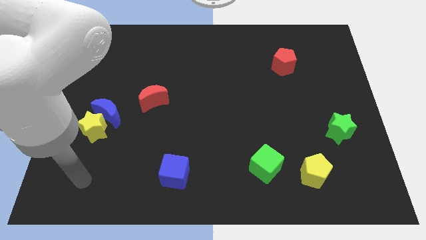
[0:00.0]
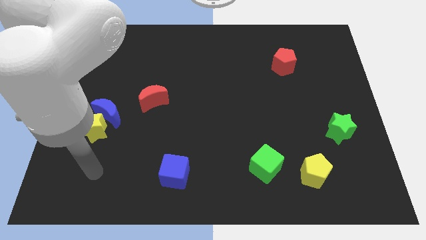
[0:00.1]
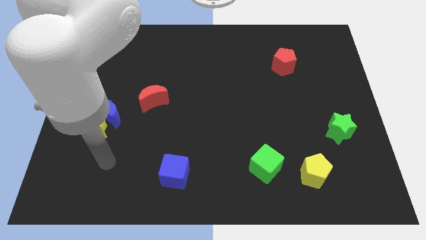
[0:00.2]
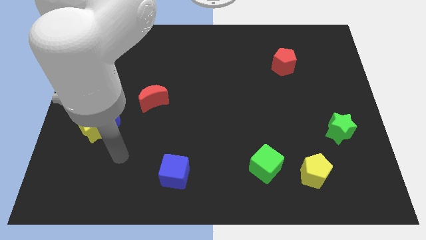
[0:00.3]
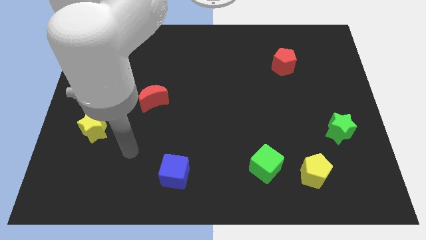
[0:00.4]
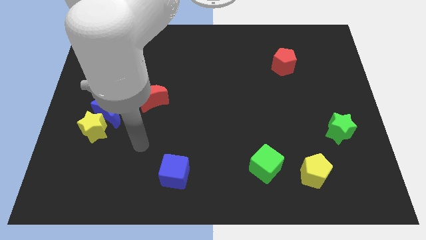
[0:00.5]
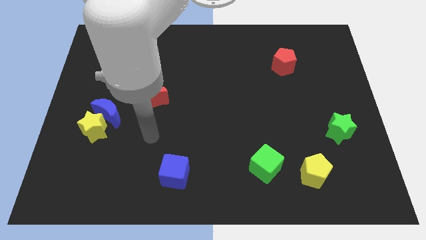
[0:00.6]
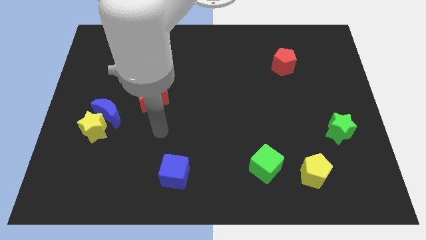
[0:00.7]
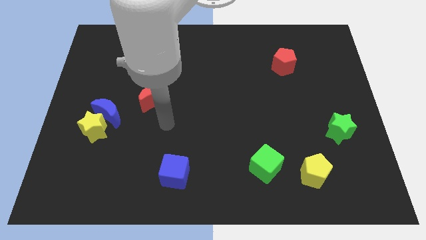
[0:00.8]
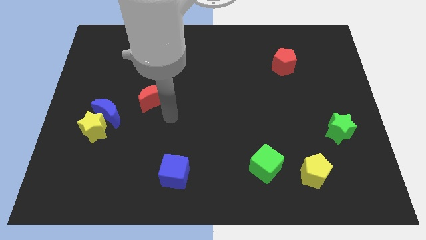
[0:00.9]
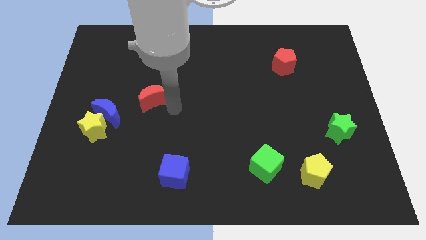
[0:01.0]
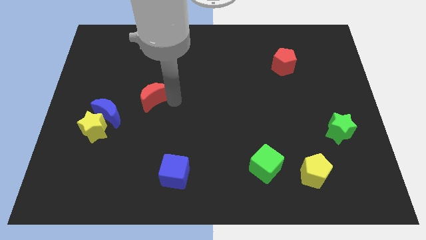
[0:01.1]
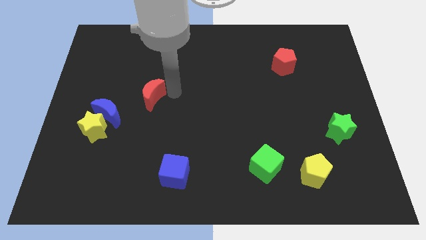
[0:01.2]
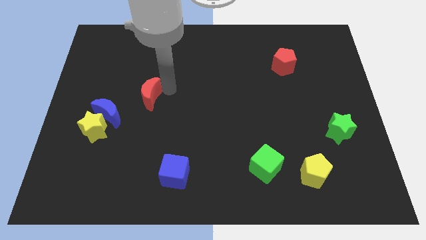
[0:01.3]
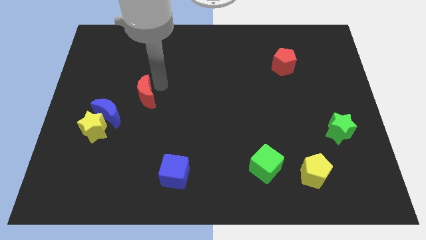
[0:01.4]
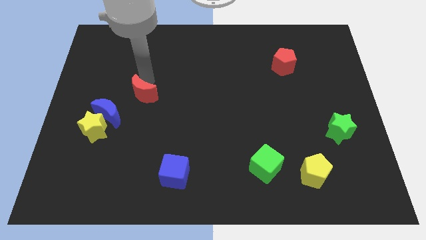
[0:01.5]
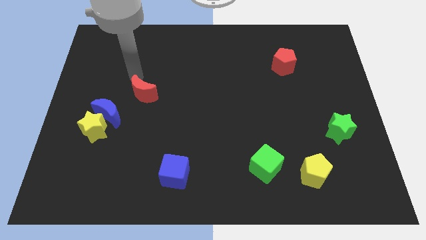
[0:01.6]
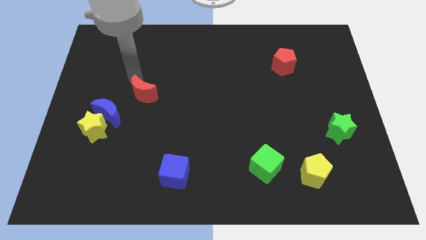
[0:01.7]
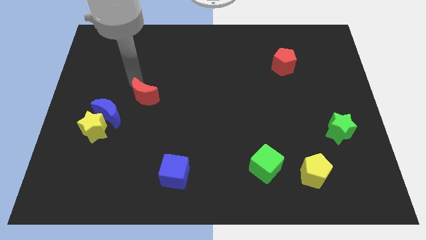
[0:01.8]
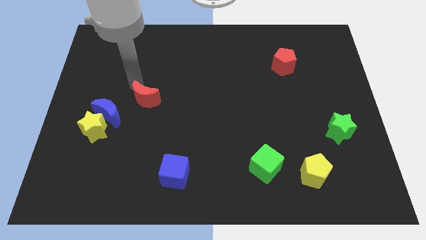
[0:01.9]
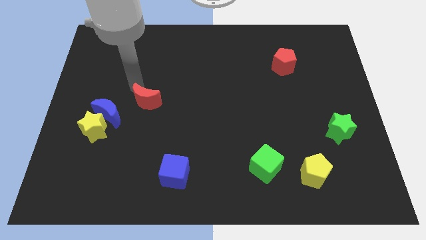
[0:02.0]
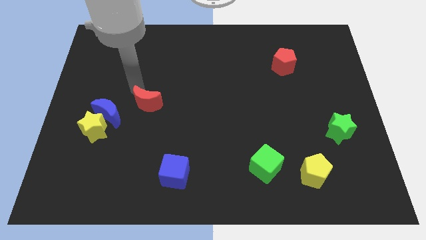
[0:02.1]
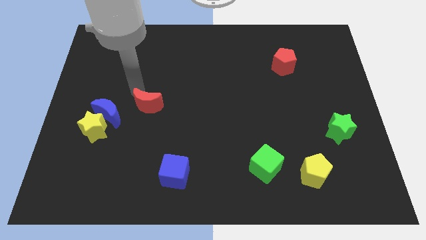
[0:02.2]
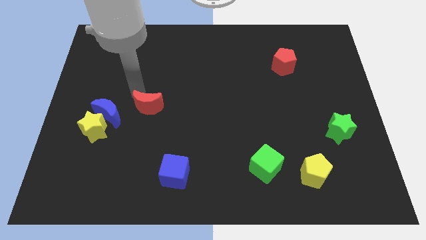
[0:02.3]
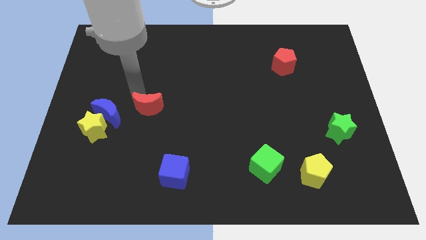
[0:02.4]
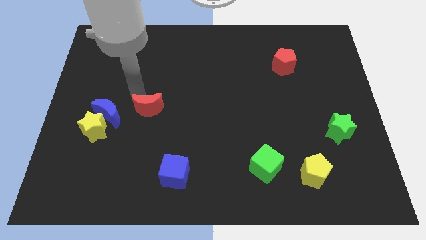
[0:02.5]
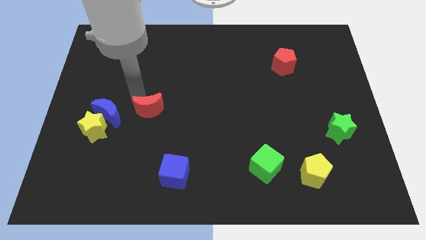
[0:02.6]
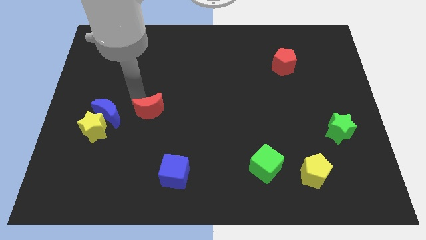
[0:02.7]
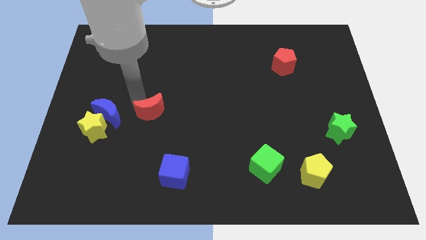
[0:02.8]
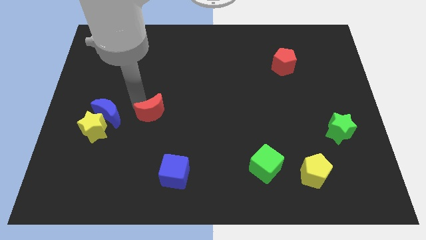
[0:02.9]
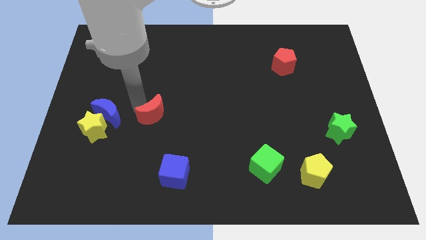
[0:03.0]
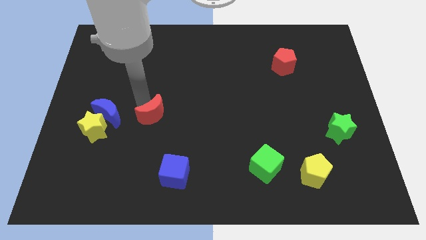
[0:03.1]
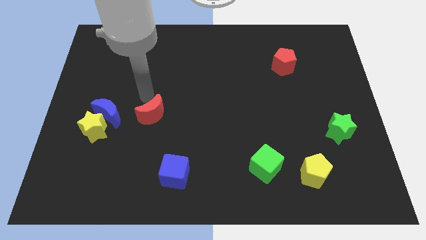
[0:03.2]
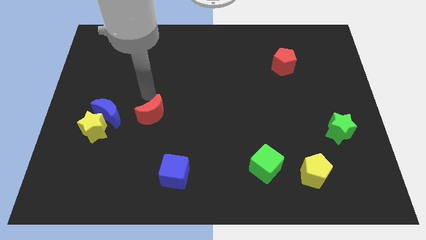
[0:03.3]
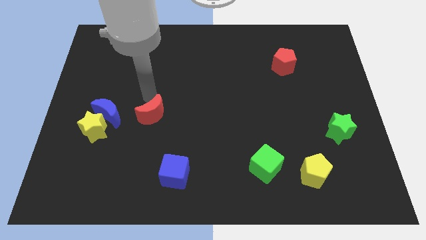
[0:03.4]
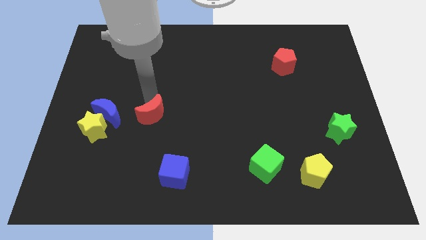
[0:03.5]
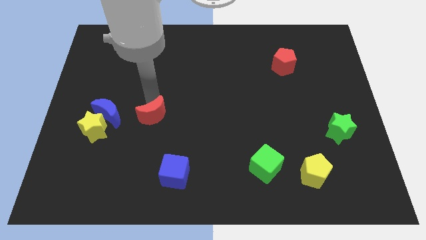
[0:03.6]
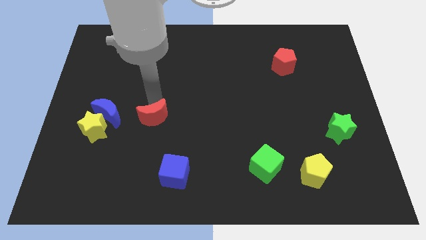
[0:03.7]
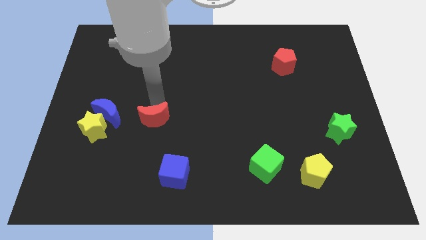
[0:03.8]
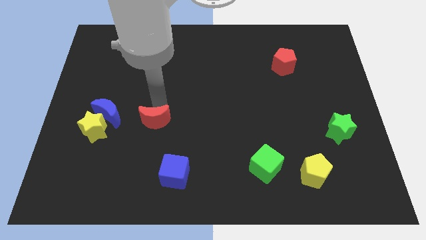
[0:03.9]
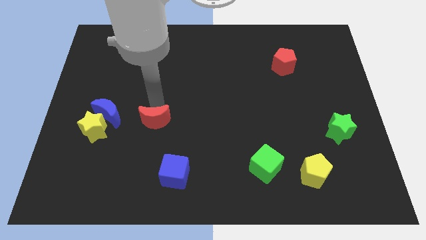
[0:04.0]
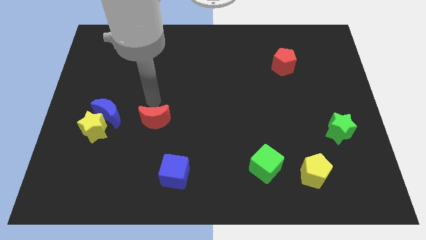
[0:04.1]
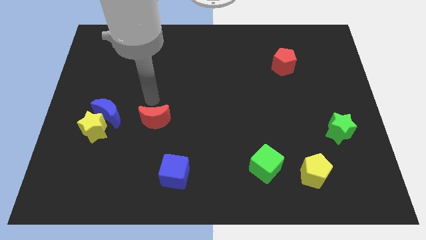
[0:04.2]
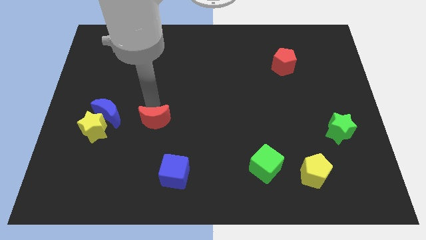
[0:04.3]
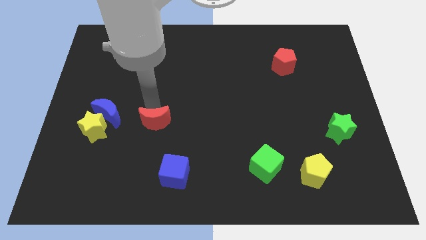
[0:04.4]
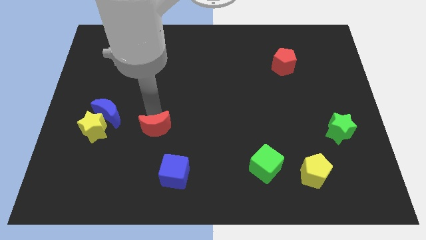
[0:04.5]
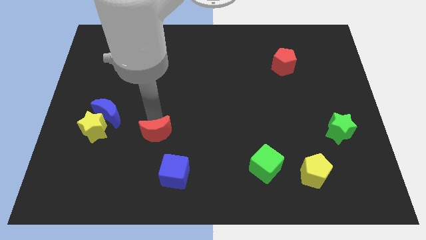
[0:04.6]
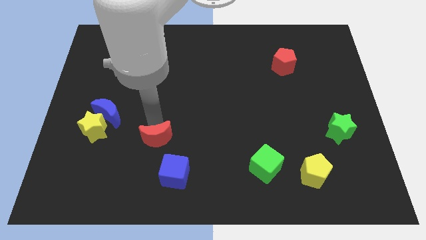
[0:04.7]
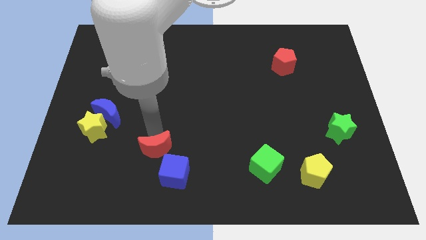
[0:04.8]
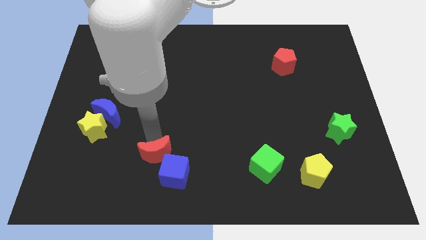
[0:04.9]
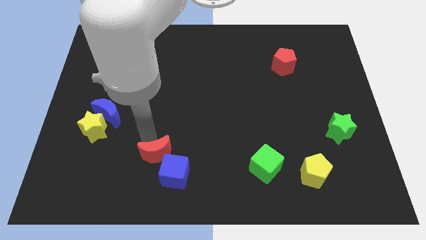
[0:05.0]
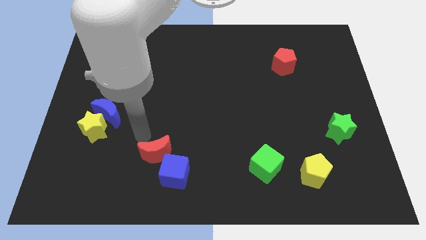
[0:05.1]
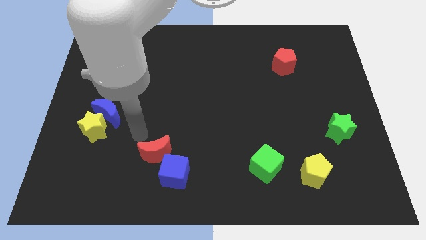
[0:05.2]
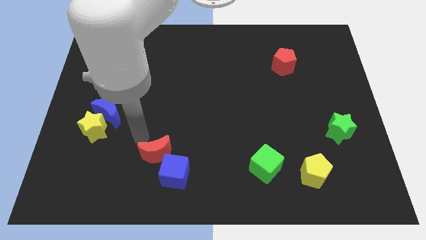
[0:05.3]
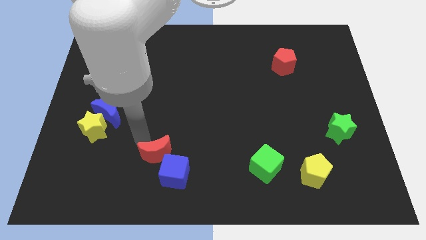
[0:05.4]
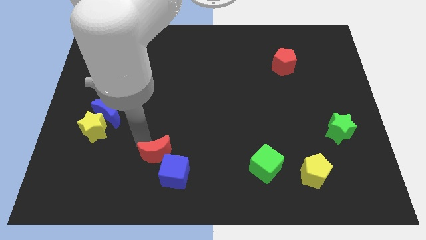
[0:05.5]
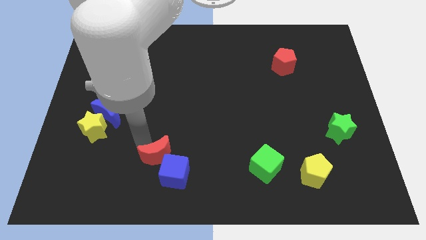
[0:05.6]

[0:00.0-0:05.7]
slide the red moon towards the blue cube

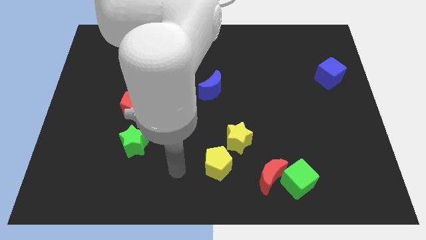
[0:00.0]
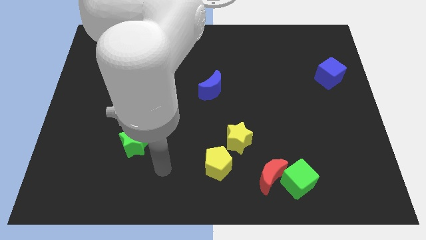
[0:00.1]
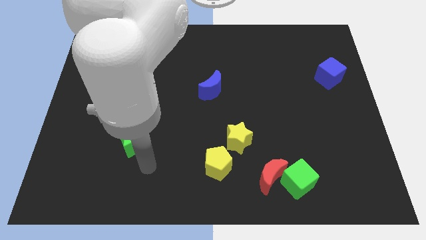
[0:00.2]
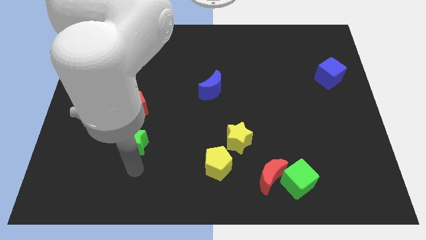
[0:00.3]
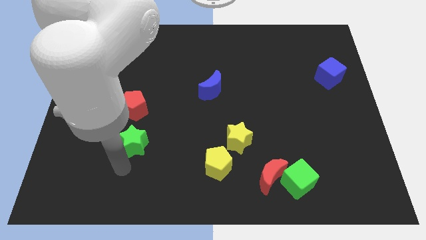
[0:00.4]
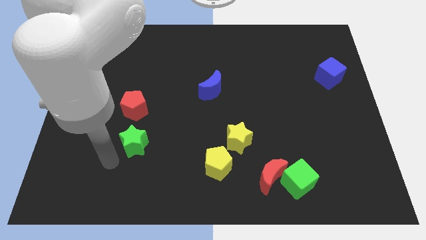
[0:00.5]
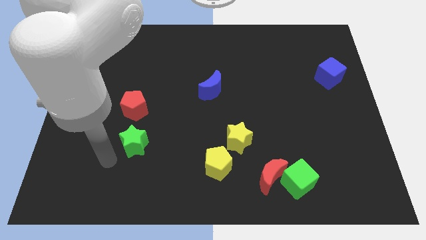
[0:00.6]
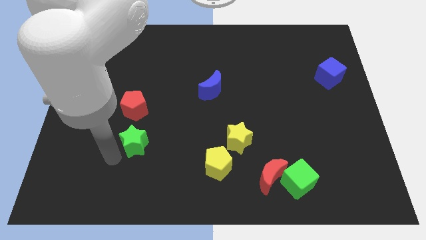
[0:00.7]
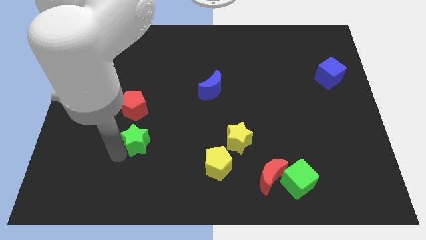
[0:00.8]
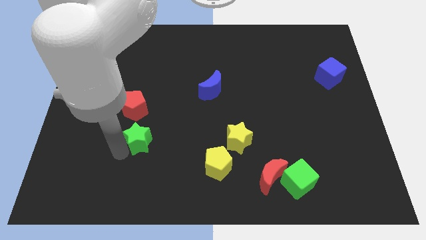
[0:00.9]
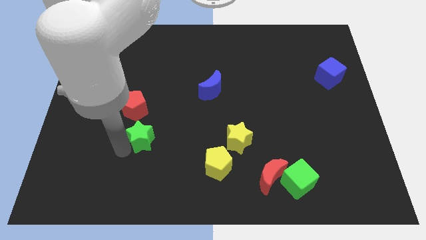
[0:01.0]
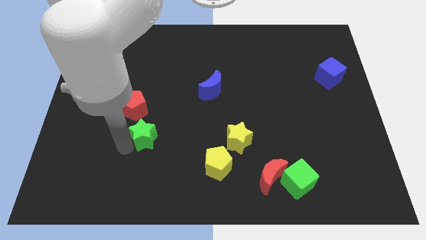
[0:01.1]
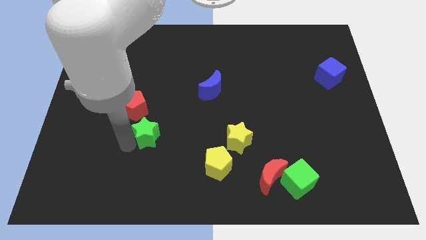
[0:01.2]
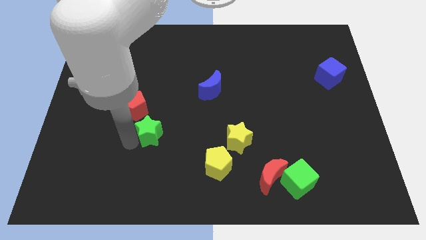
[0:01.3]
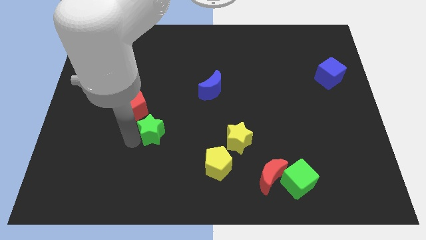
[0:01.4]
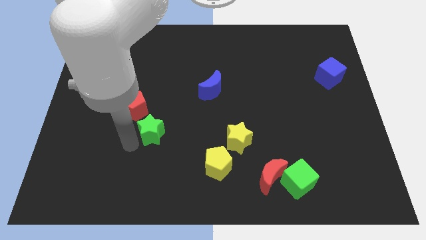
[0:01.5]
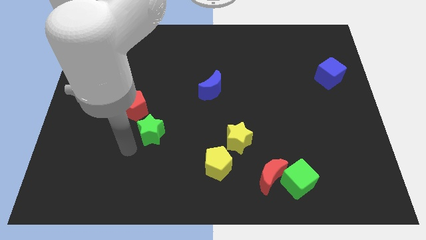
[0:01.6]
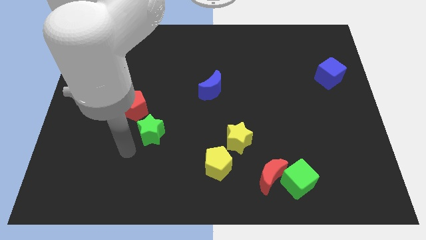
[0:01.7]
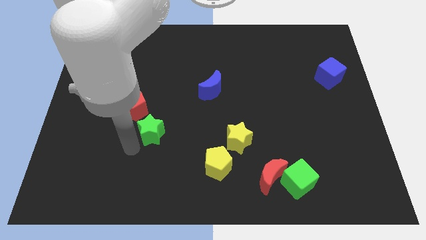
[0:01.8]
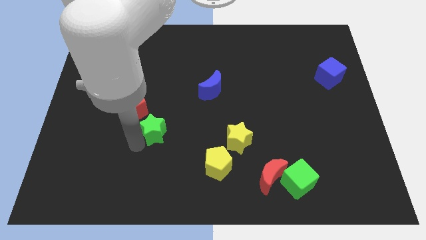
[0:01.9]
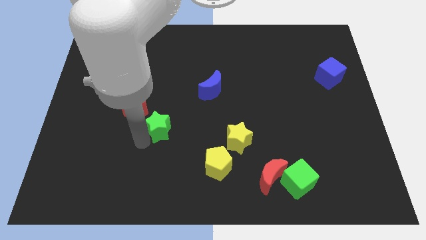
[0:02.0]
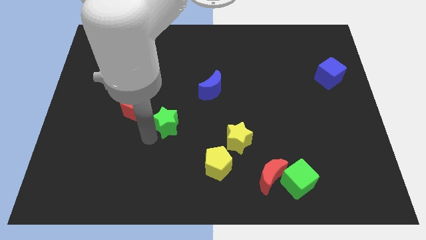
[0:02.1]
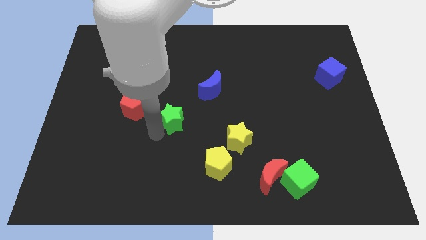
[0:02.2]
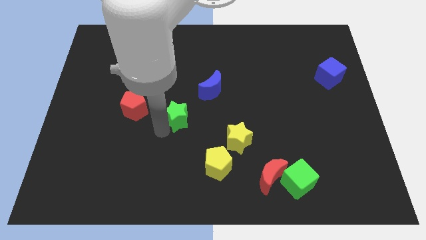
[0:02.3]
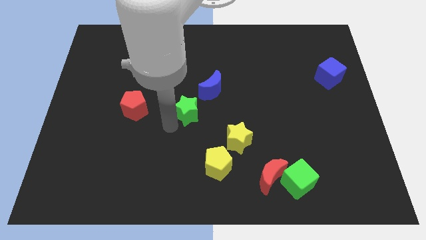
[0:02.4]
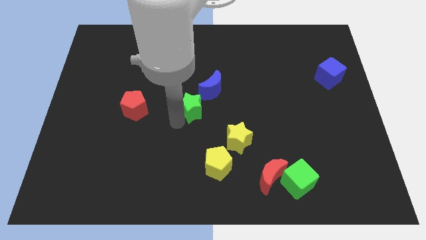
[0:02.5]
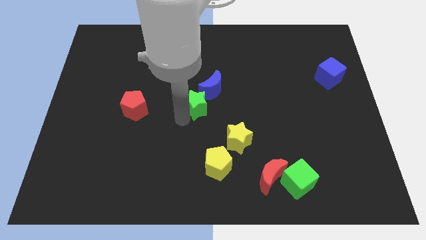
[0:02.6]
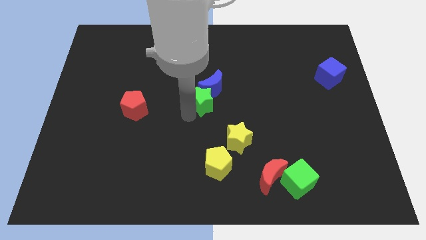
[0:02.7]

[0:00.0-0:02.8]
push the green star close to the blue moon
